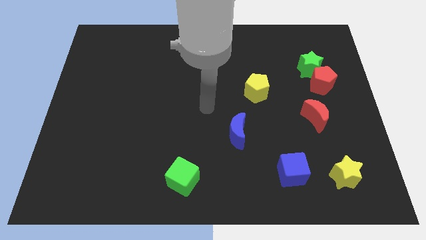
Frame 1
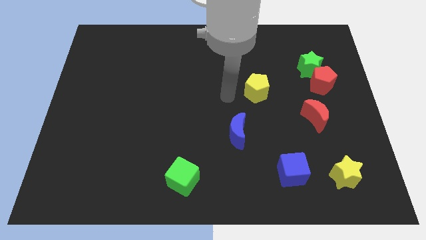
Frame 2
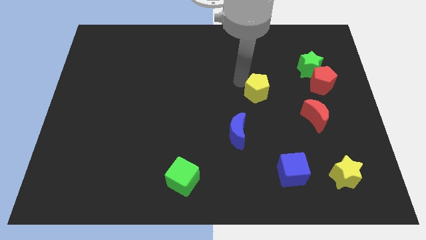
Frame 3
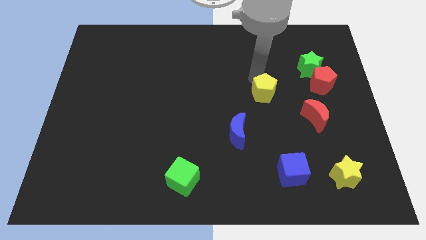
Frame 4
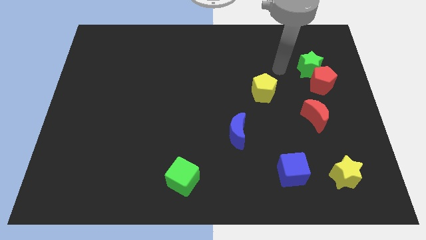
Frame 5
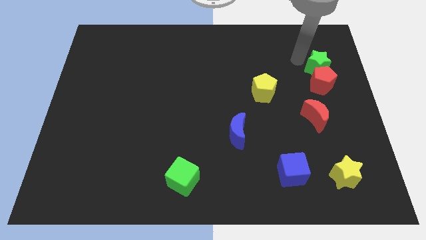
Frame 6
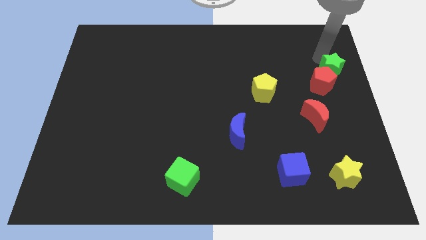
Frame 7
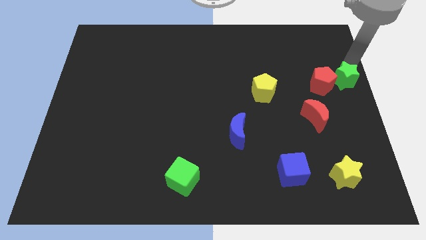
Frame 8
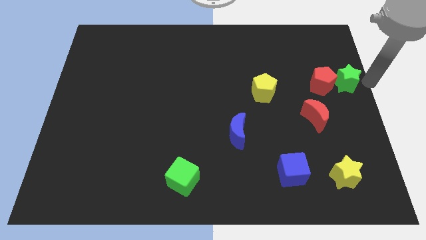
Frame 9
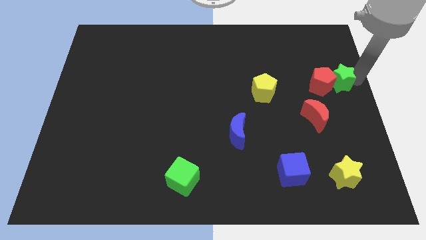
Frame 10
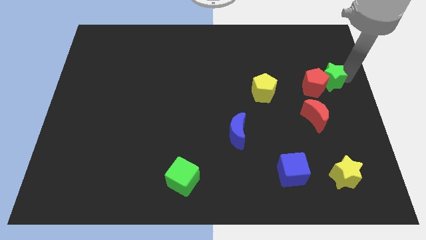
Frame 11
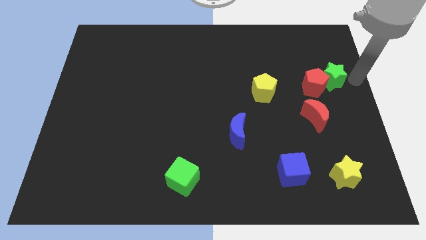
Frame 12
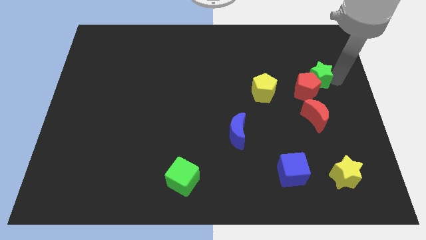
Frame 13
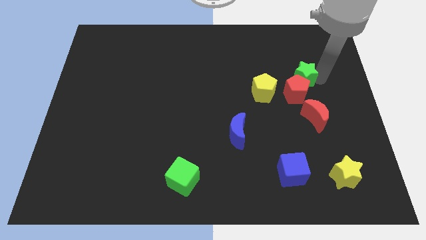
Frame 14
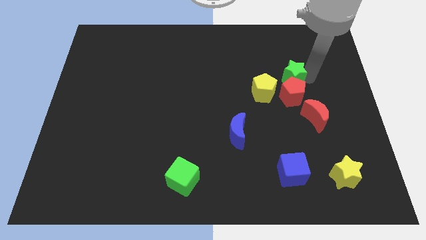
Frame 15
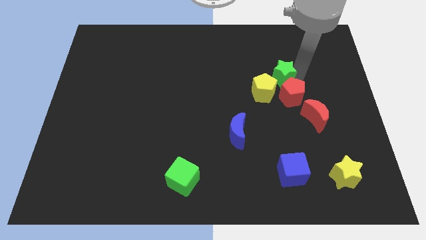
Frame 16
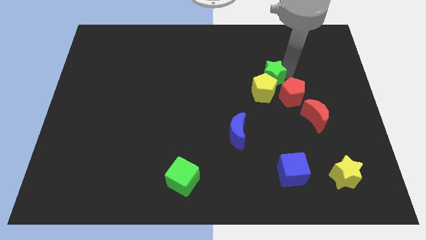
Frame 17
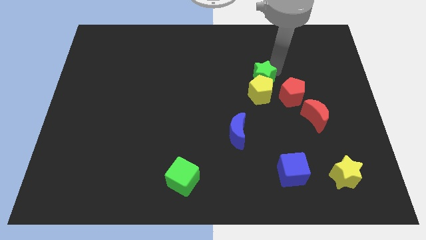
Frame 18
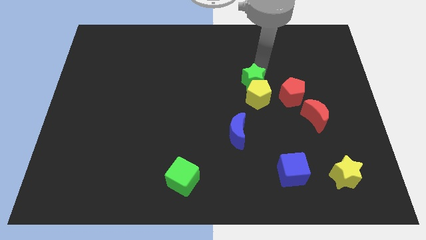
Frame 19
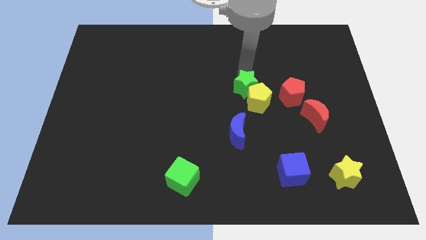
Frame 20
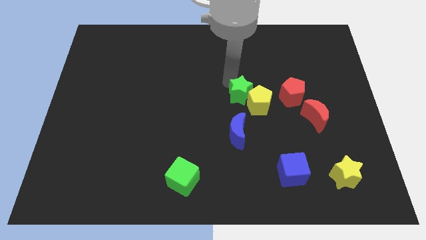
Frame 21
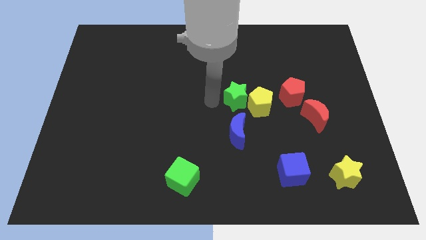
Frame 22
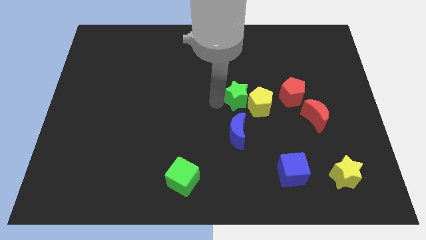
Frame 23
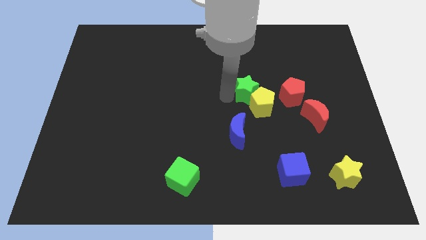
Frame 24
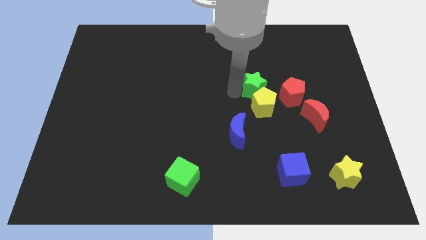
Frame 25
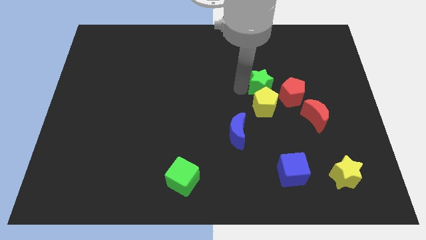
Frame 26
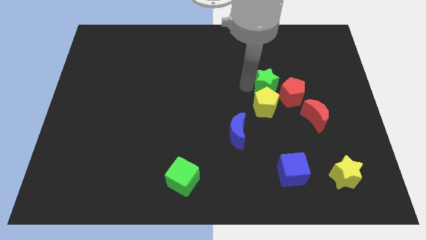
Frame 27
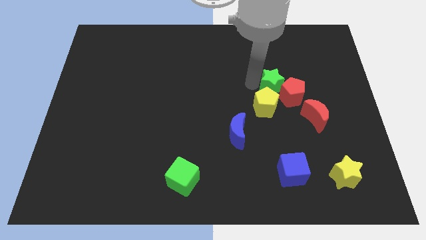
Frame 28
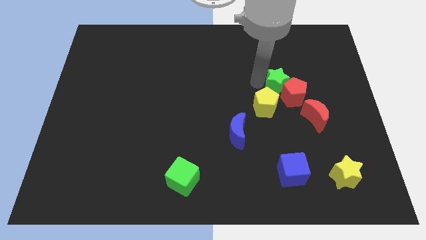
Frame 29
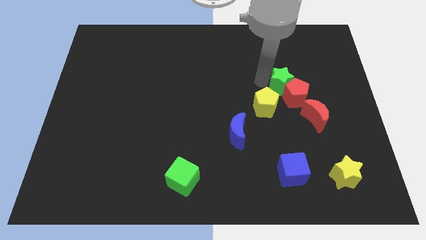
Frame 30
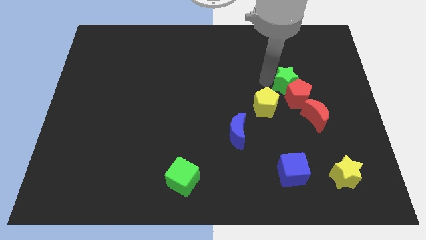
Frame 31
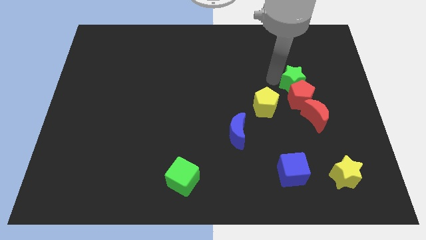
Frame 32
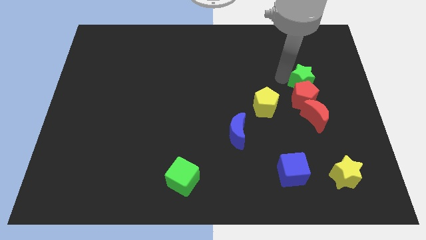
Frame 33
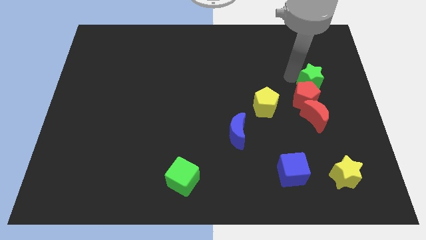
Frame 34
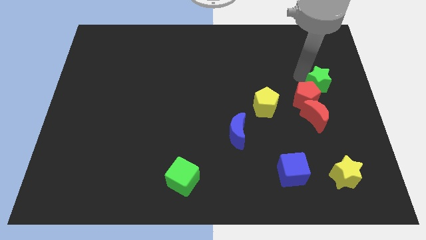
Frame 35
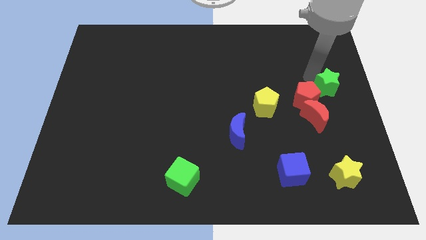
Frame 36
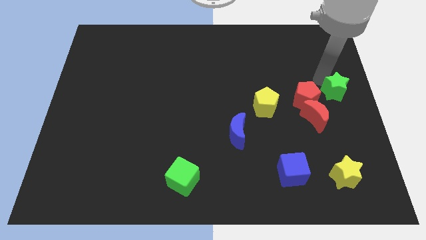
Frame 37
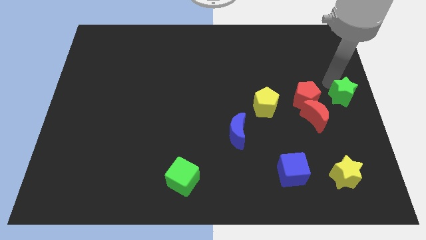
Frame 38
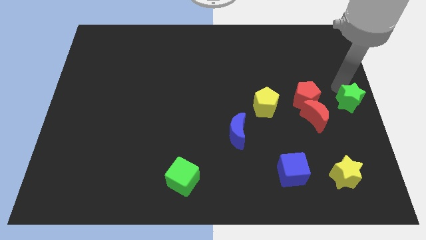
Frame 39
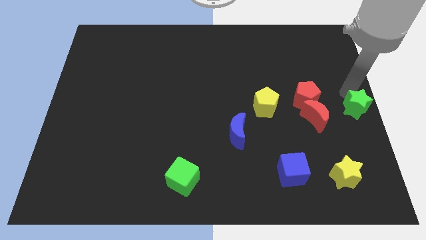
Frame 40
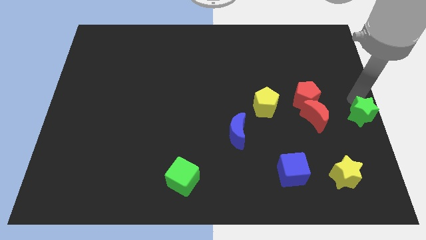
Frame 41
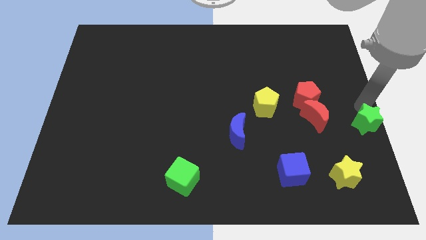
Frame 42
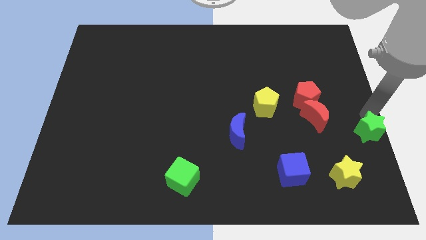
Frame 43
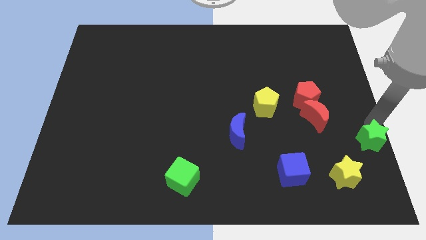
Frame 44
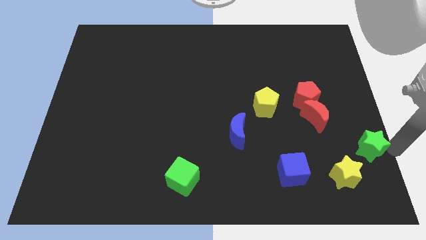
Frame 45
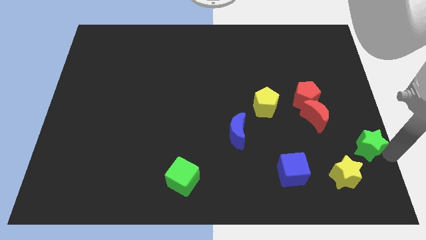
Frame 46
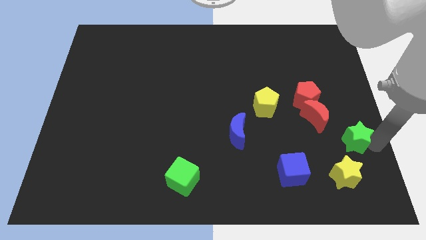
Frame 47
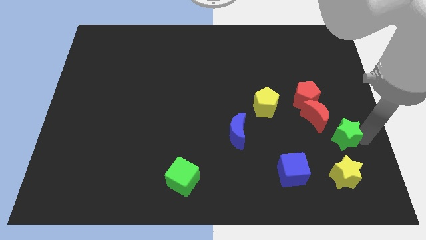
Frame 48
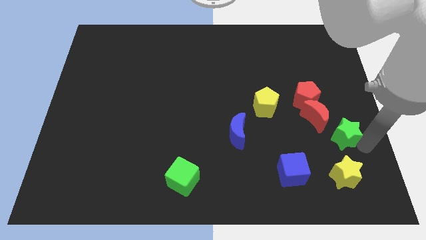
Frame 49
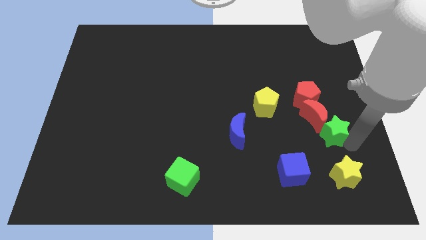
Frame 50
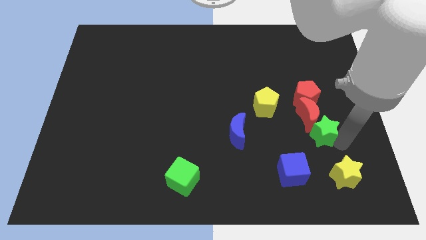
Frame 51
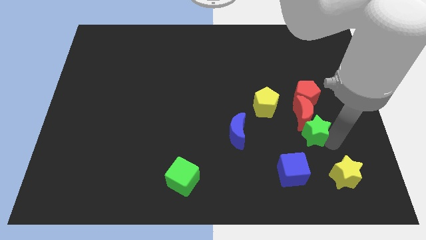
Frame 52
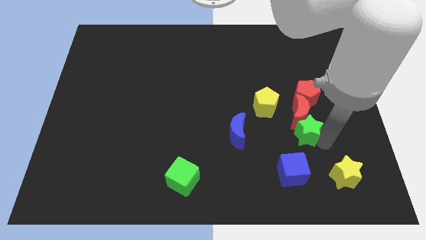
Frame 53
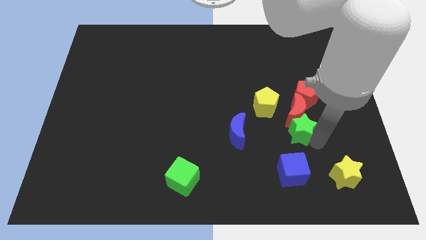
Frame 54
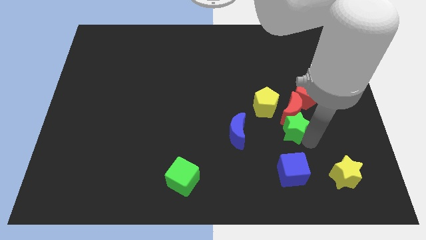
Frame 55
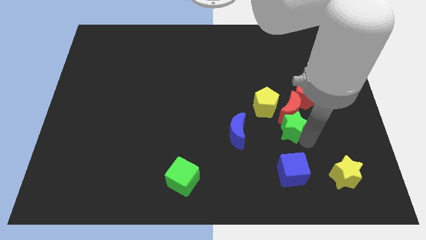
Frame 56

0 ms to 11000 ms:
slide the green star to the bottom left side of the red pentagon

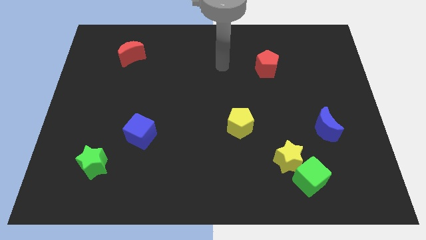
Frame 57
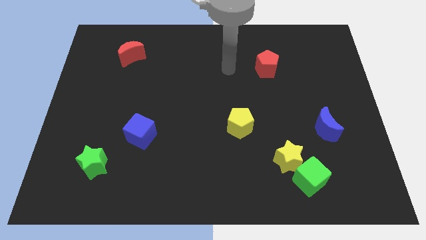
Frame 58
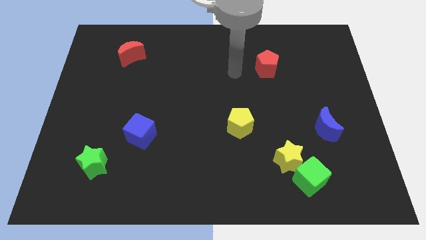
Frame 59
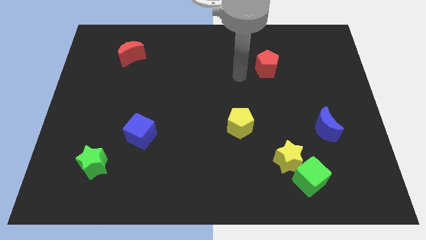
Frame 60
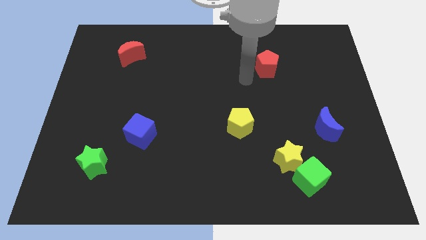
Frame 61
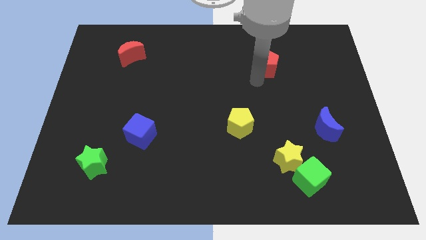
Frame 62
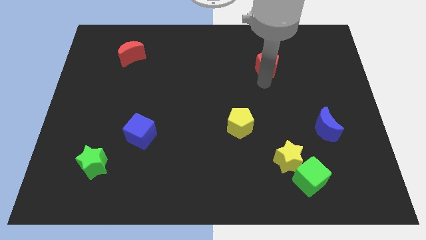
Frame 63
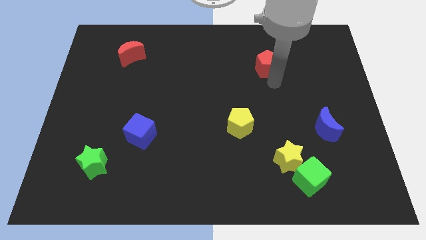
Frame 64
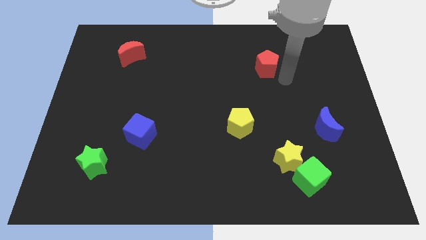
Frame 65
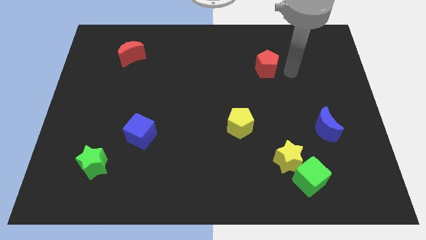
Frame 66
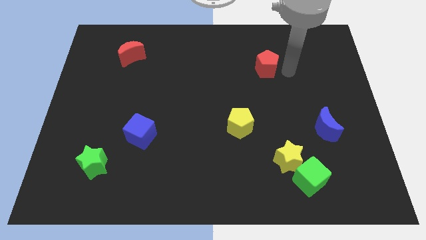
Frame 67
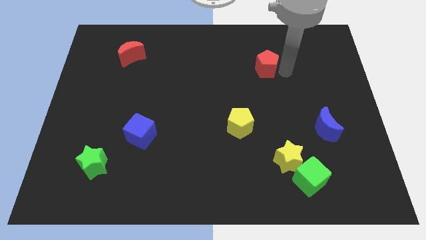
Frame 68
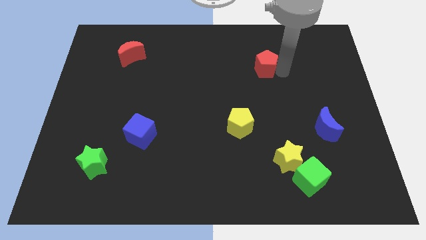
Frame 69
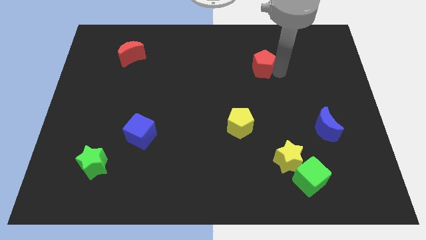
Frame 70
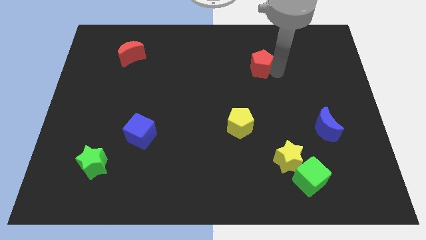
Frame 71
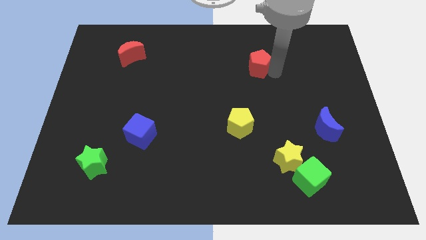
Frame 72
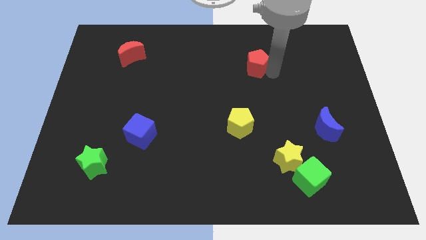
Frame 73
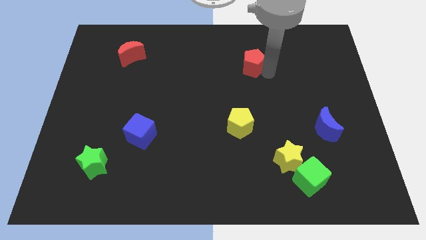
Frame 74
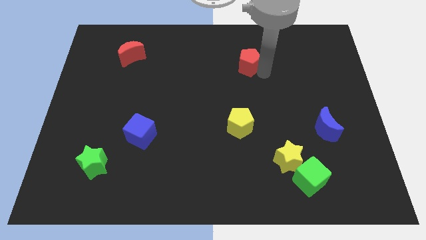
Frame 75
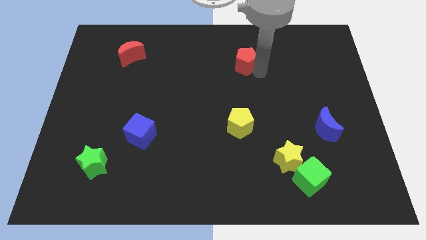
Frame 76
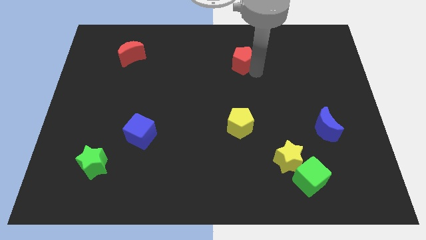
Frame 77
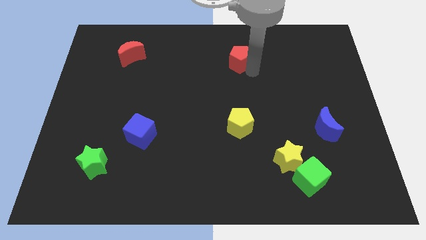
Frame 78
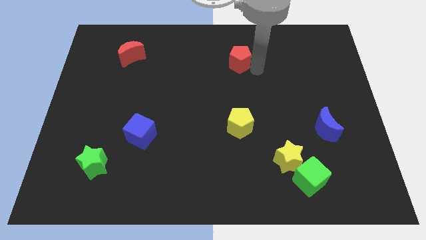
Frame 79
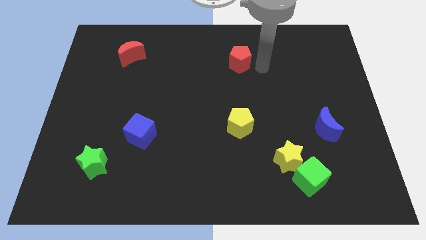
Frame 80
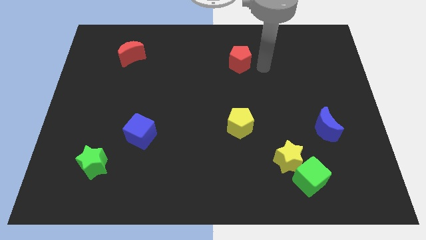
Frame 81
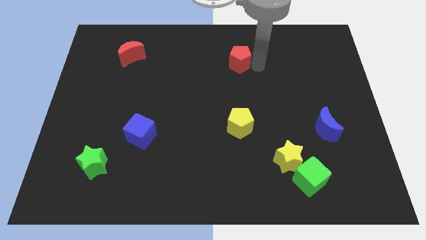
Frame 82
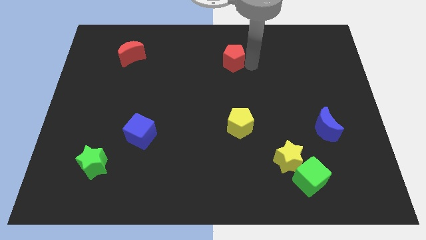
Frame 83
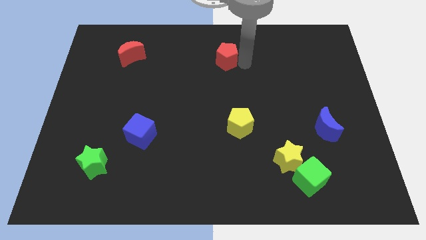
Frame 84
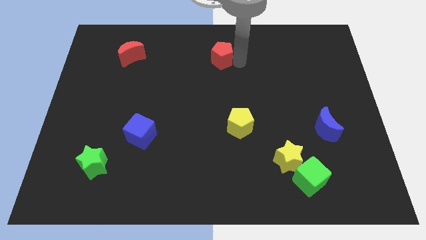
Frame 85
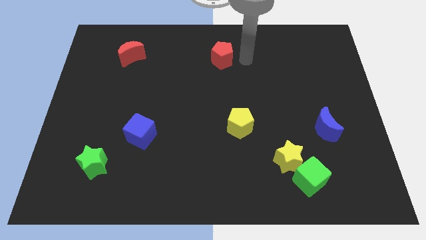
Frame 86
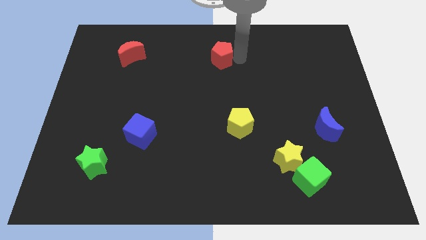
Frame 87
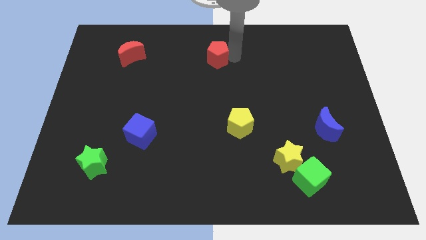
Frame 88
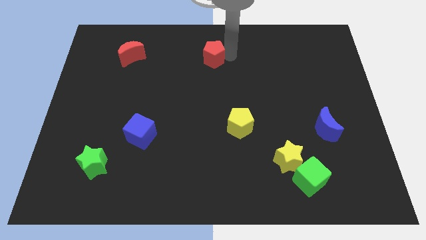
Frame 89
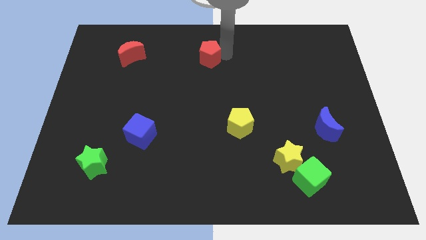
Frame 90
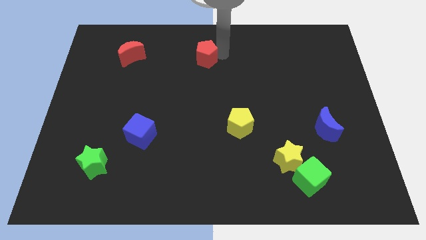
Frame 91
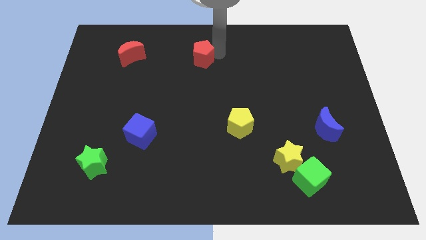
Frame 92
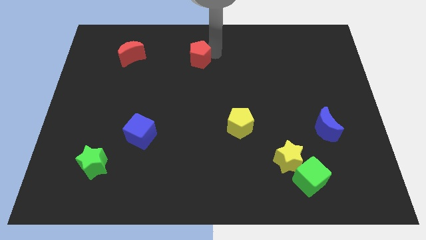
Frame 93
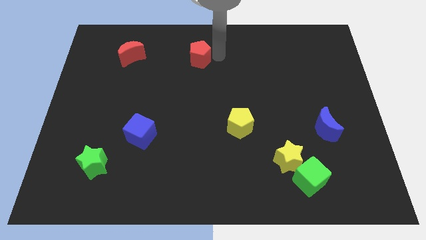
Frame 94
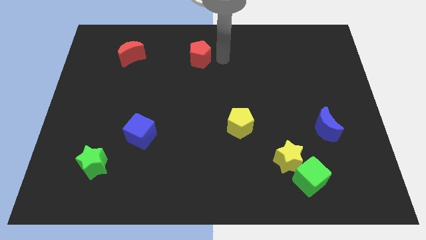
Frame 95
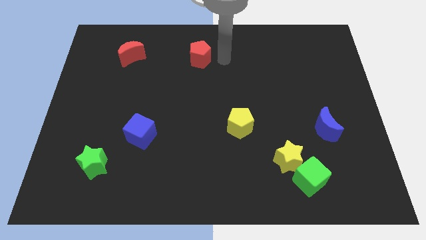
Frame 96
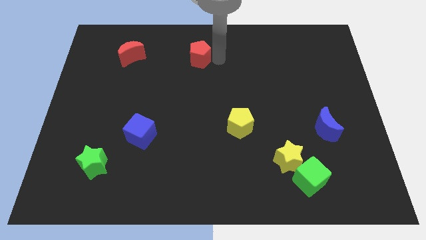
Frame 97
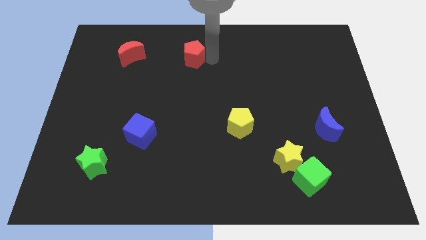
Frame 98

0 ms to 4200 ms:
move the red pentagon just right of the red moon
